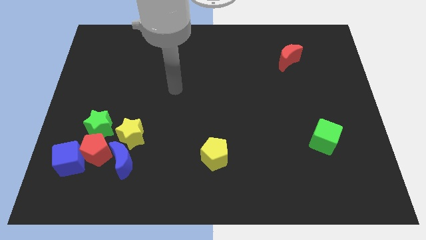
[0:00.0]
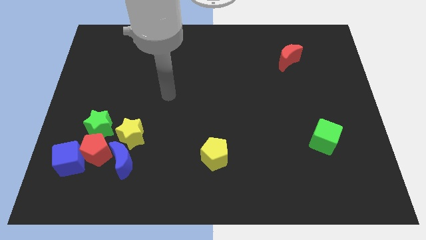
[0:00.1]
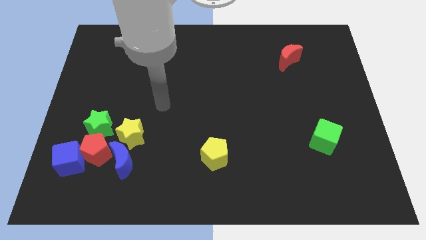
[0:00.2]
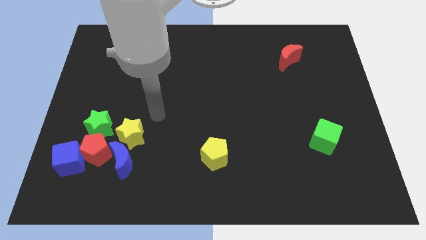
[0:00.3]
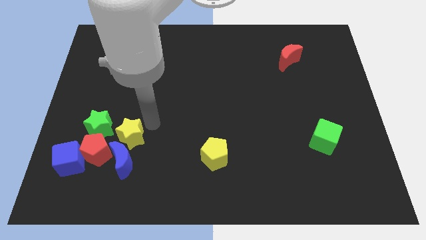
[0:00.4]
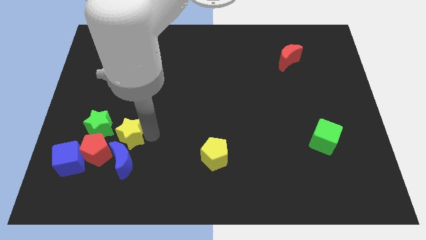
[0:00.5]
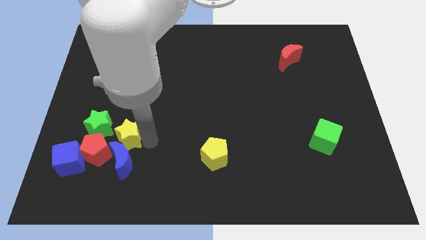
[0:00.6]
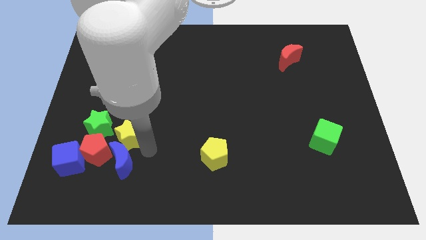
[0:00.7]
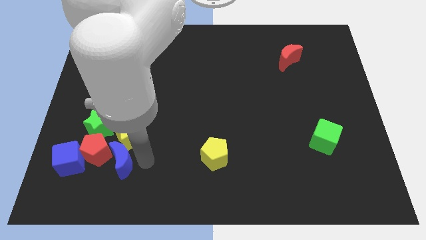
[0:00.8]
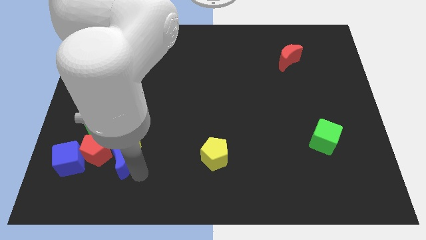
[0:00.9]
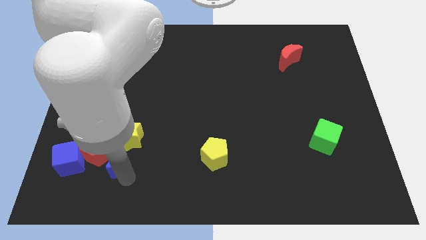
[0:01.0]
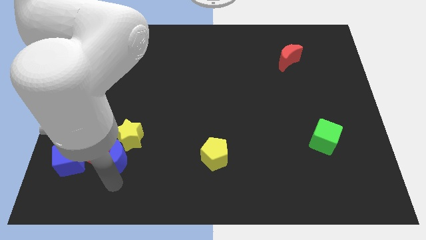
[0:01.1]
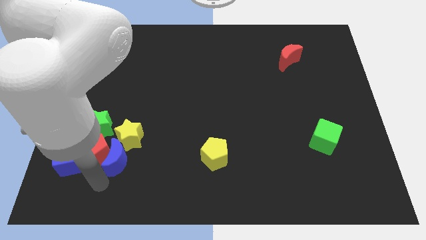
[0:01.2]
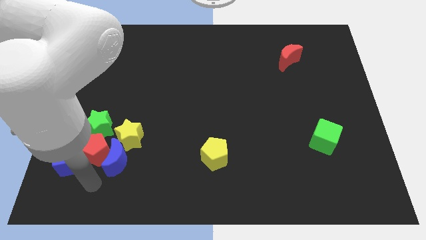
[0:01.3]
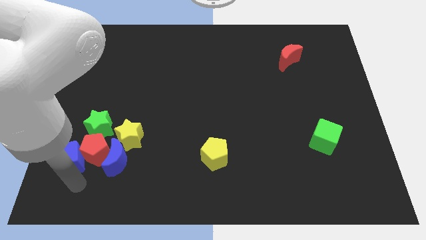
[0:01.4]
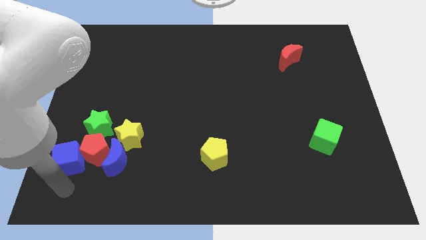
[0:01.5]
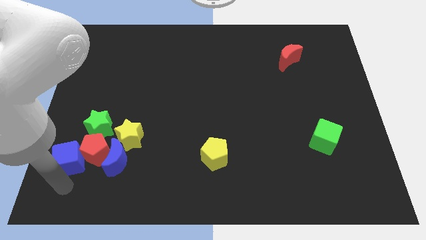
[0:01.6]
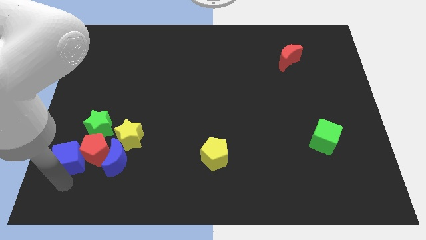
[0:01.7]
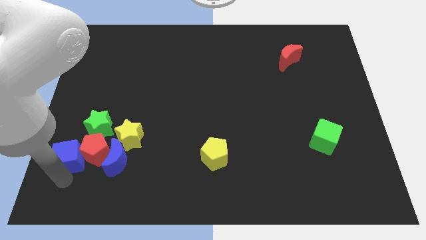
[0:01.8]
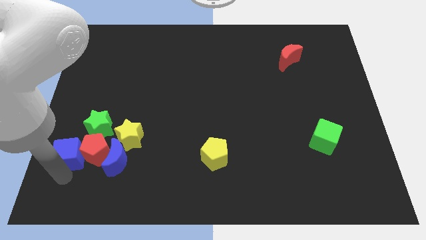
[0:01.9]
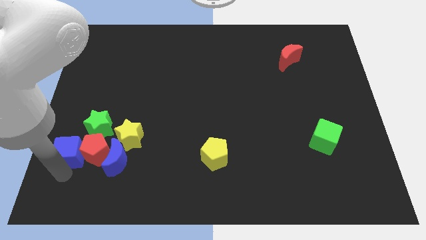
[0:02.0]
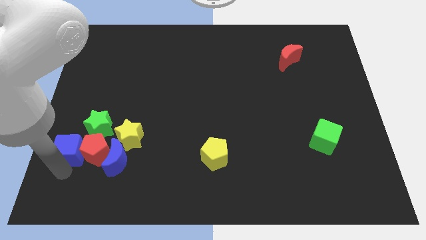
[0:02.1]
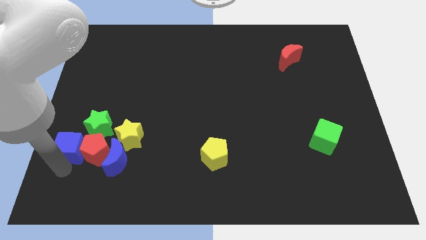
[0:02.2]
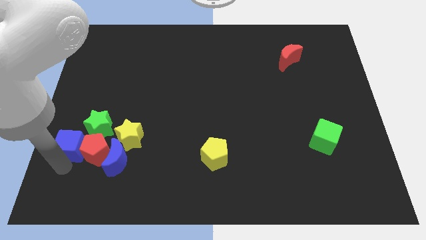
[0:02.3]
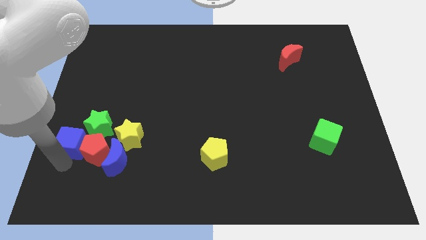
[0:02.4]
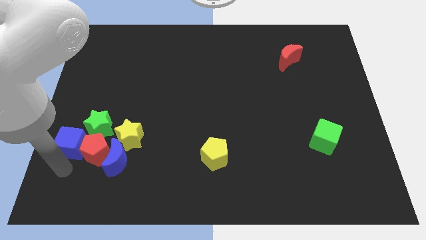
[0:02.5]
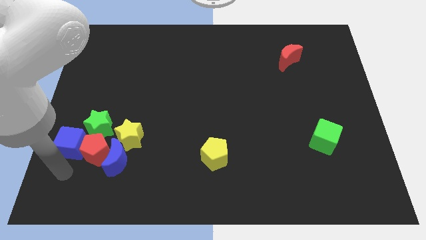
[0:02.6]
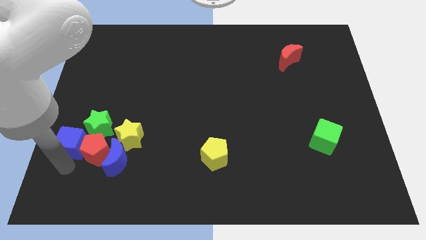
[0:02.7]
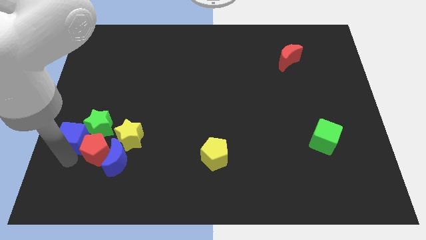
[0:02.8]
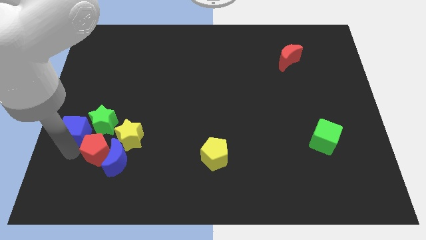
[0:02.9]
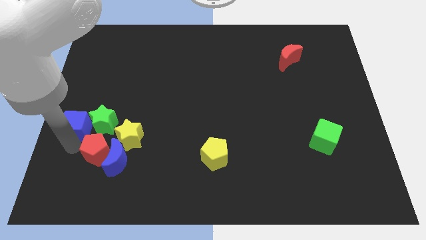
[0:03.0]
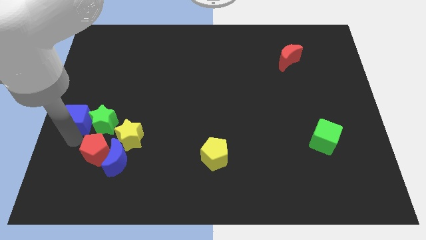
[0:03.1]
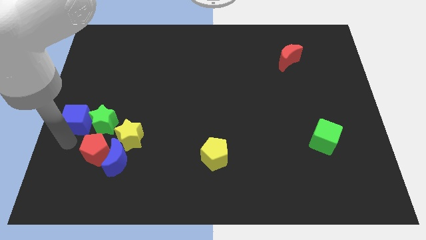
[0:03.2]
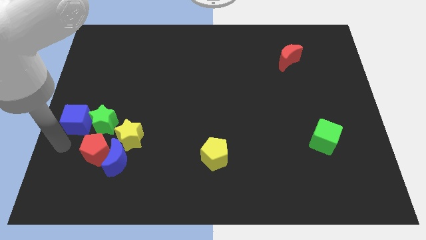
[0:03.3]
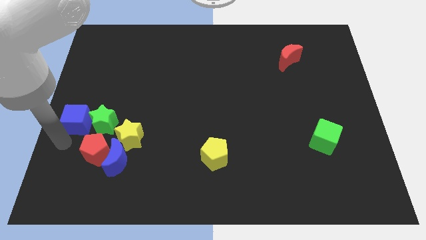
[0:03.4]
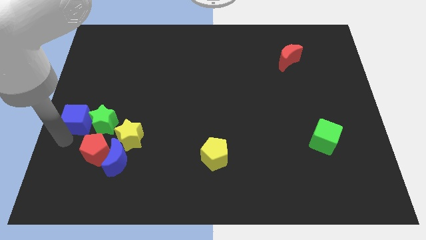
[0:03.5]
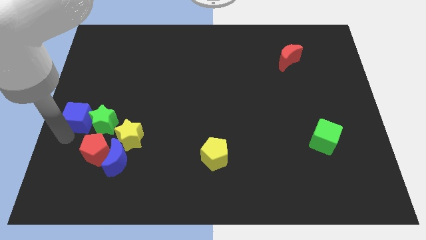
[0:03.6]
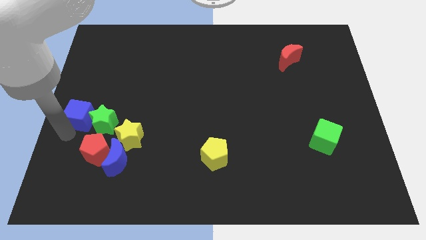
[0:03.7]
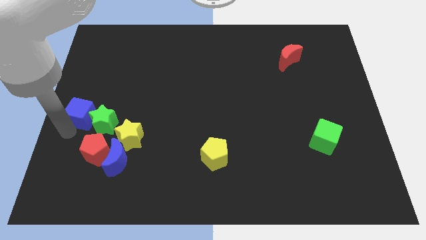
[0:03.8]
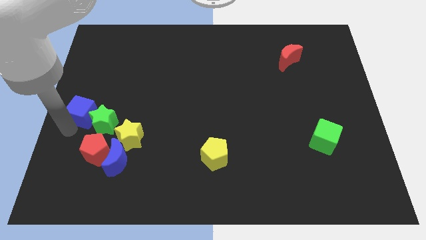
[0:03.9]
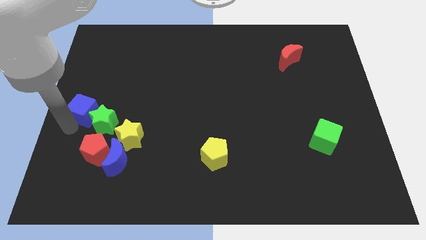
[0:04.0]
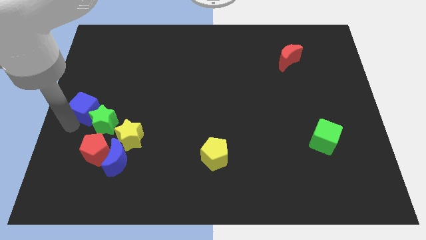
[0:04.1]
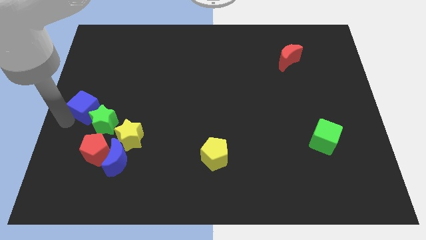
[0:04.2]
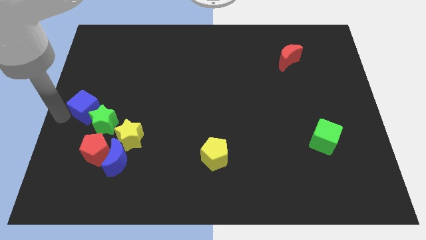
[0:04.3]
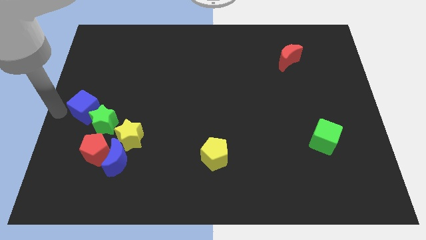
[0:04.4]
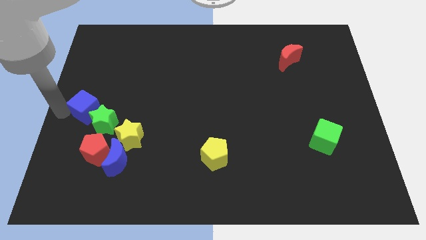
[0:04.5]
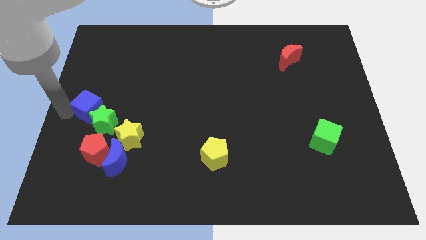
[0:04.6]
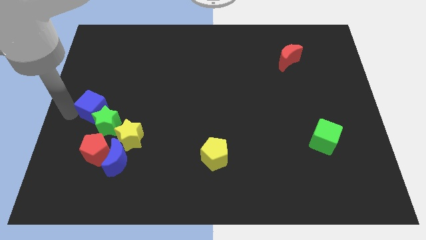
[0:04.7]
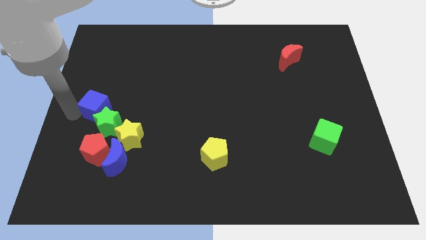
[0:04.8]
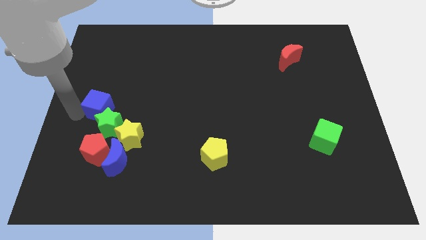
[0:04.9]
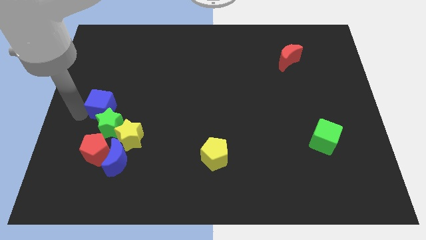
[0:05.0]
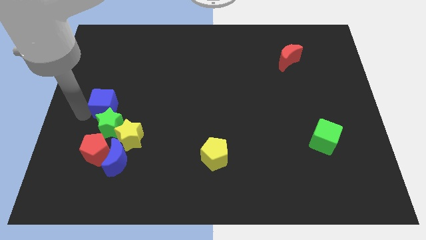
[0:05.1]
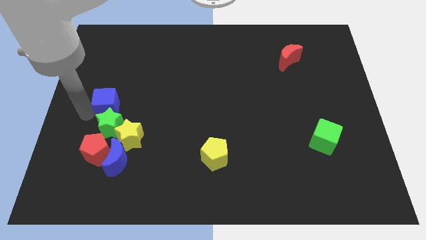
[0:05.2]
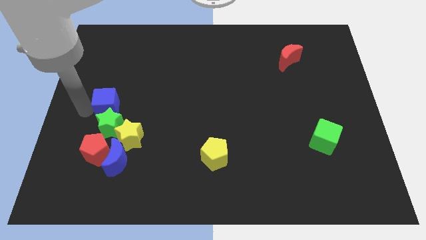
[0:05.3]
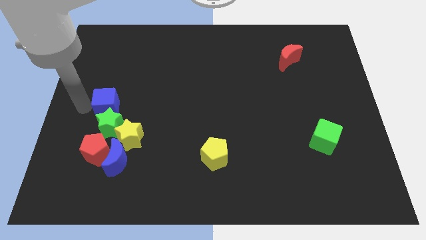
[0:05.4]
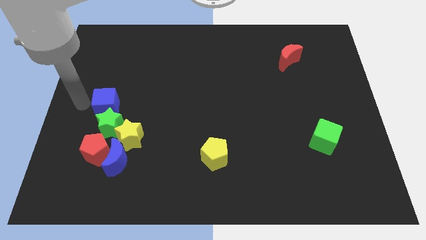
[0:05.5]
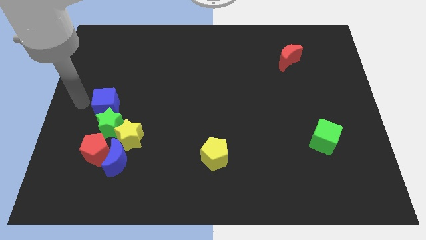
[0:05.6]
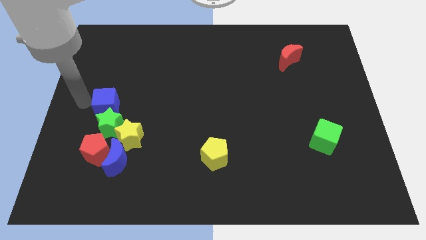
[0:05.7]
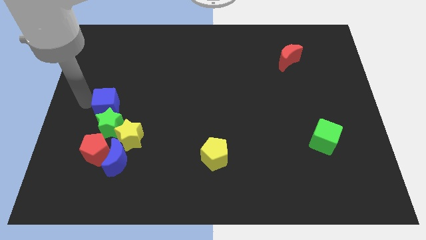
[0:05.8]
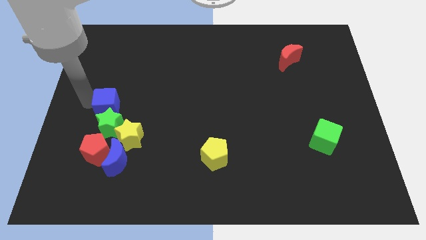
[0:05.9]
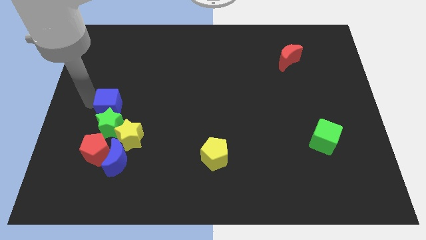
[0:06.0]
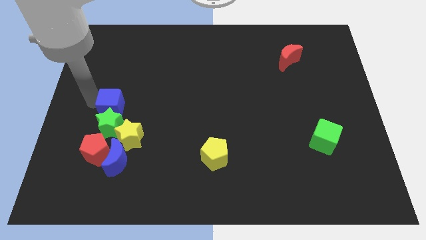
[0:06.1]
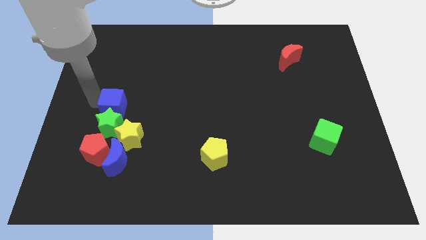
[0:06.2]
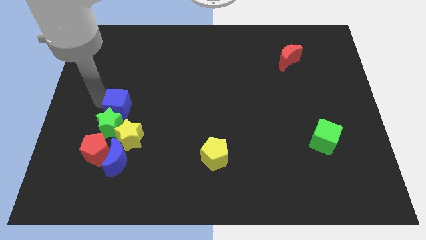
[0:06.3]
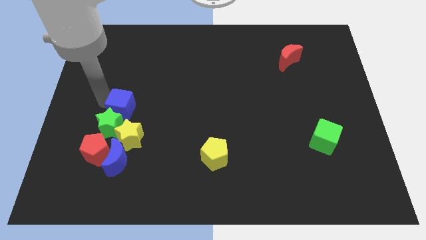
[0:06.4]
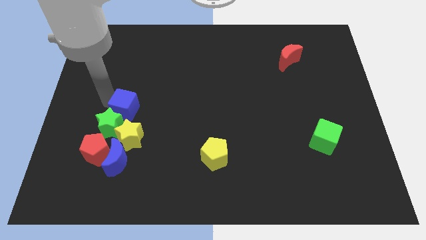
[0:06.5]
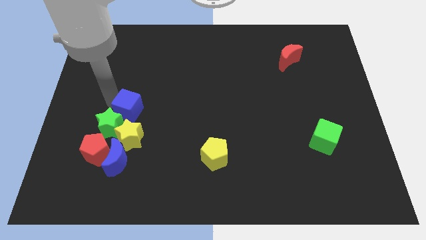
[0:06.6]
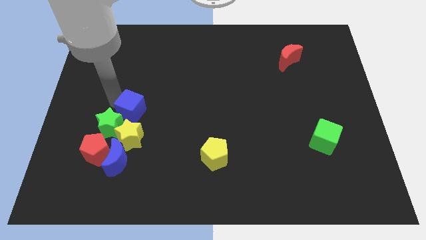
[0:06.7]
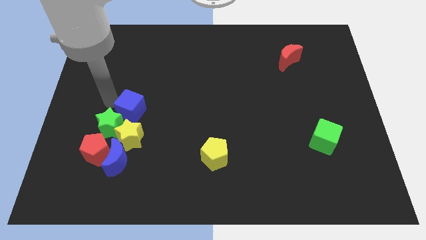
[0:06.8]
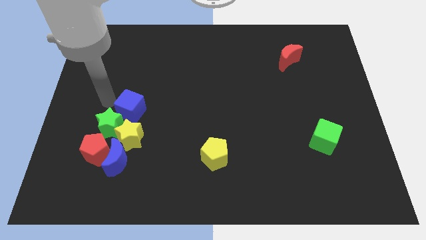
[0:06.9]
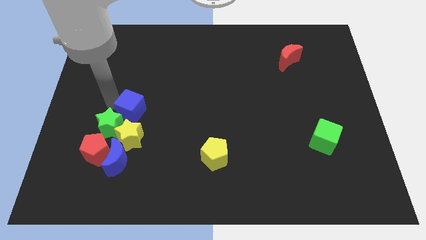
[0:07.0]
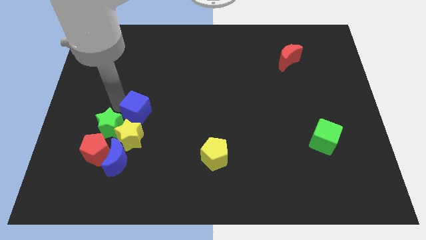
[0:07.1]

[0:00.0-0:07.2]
slide the blue cube to the top right of the yellow star
